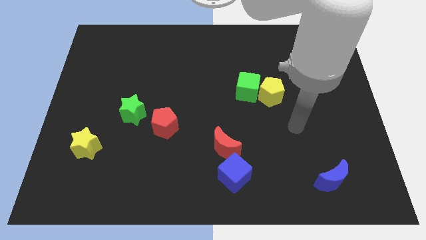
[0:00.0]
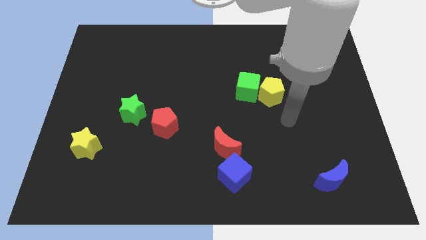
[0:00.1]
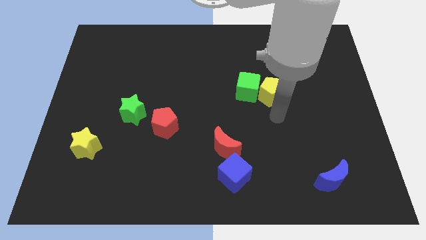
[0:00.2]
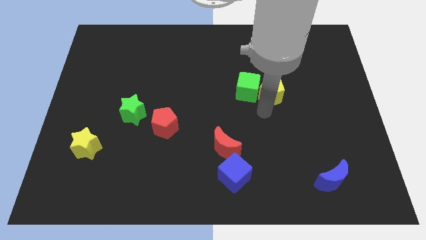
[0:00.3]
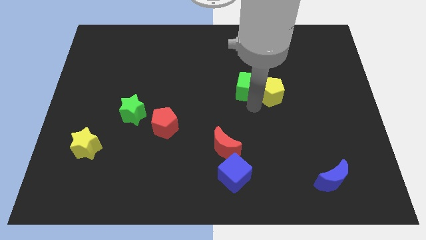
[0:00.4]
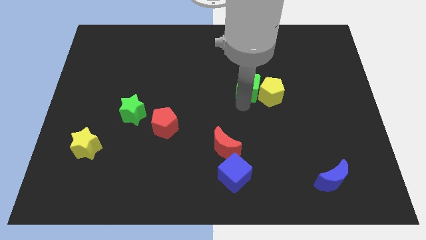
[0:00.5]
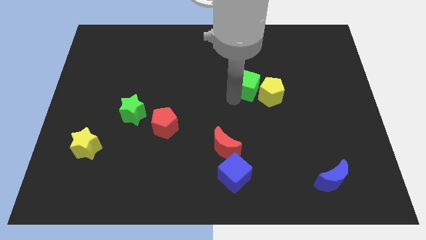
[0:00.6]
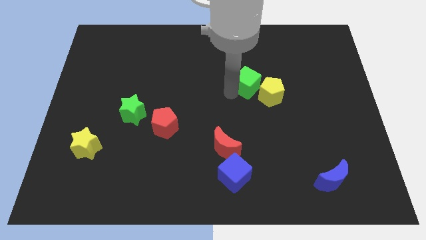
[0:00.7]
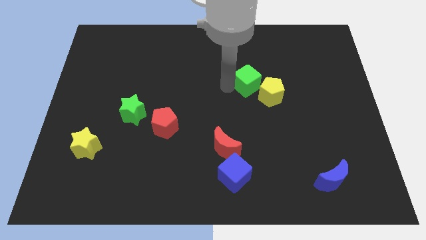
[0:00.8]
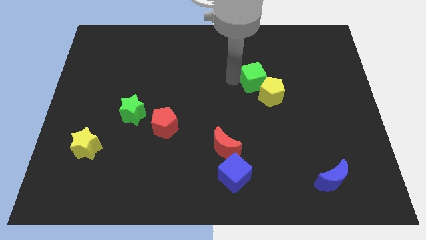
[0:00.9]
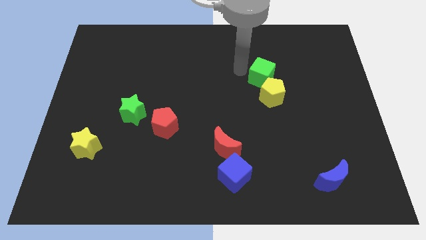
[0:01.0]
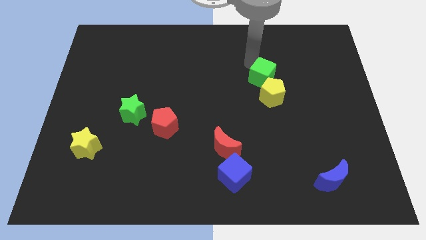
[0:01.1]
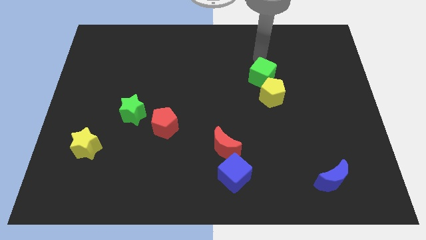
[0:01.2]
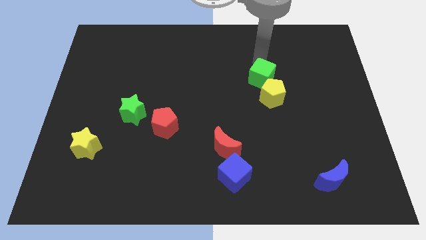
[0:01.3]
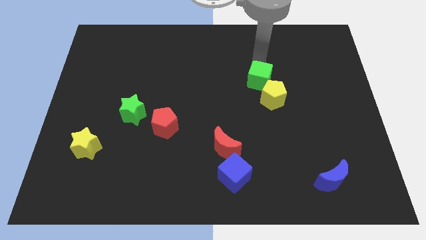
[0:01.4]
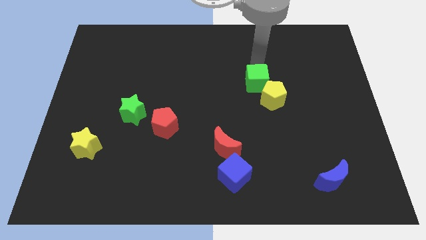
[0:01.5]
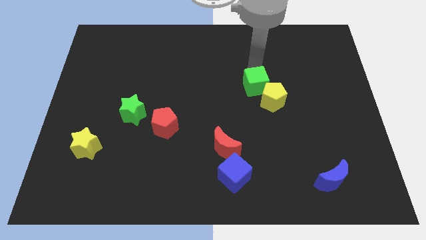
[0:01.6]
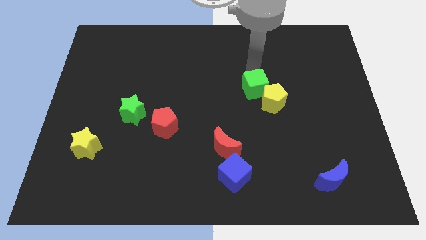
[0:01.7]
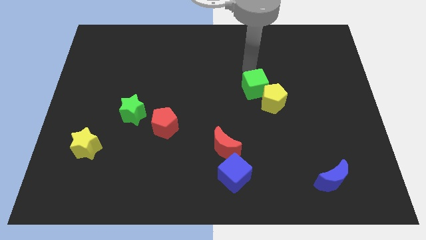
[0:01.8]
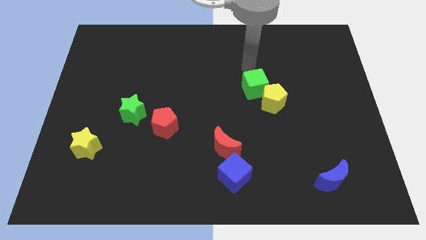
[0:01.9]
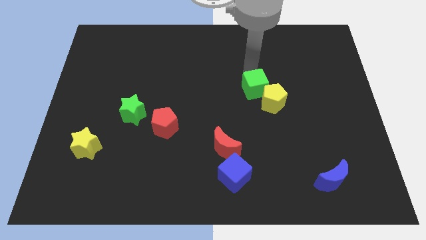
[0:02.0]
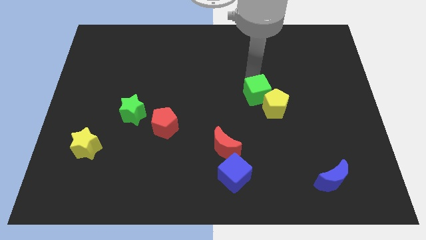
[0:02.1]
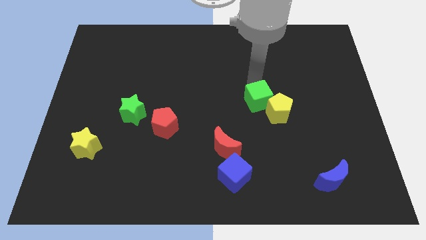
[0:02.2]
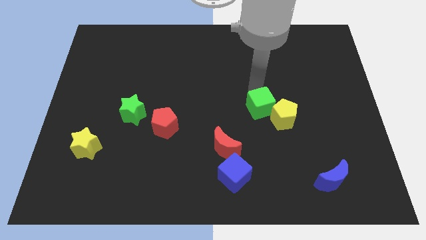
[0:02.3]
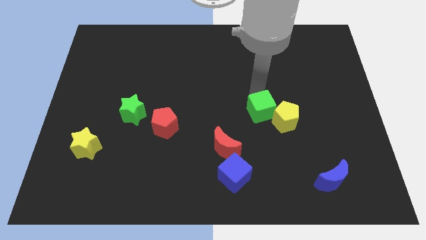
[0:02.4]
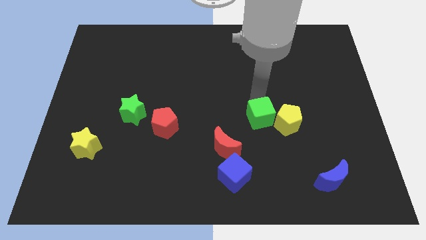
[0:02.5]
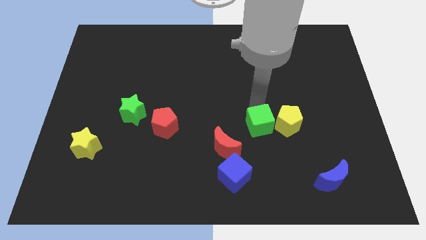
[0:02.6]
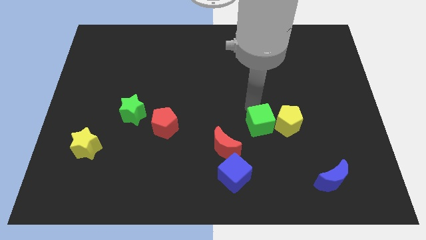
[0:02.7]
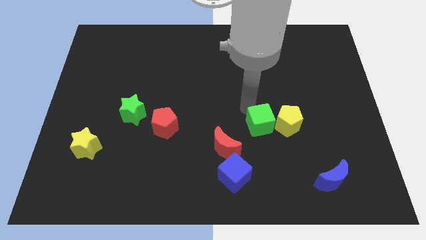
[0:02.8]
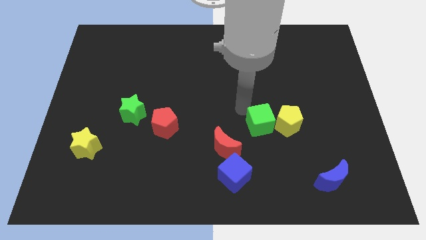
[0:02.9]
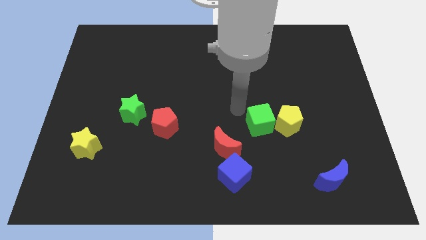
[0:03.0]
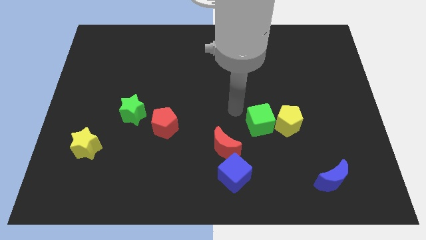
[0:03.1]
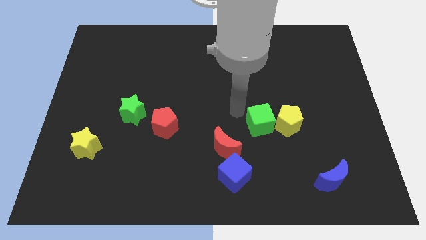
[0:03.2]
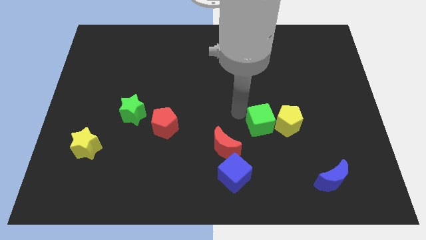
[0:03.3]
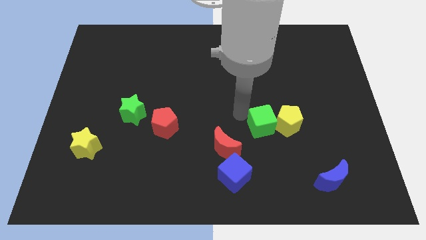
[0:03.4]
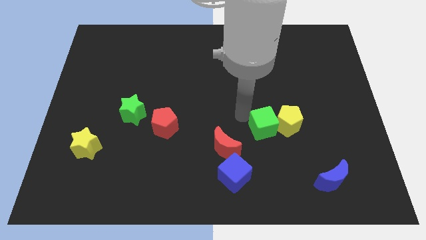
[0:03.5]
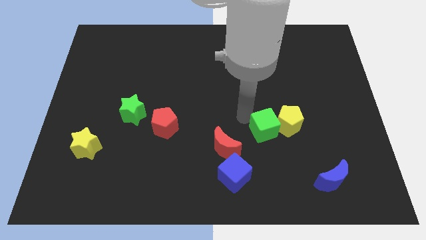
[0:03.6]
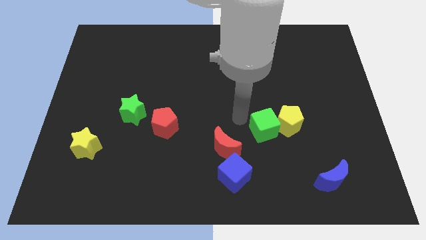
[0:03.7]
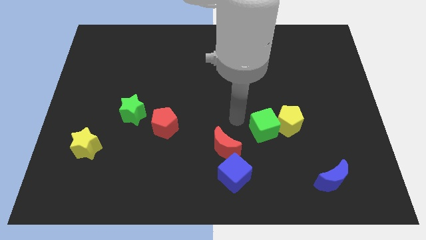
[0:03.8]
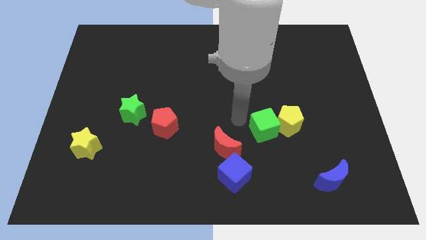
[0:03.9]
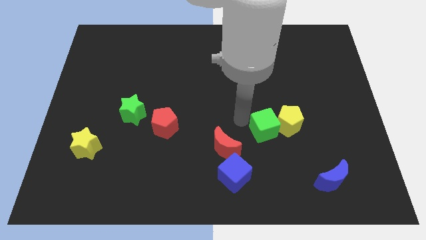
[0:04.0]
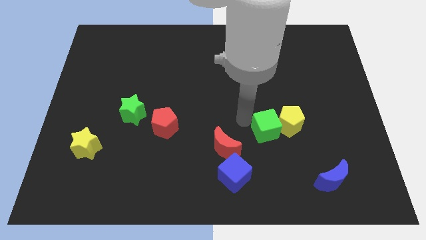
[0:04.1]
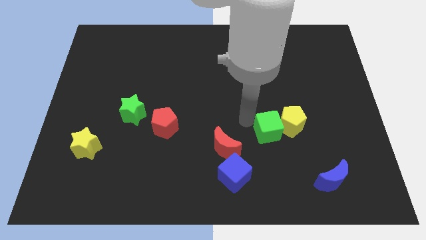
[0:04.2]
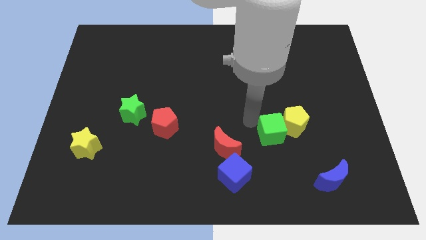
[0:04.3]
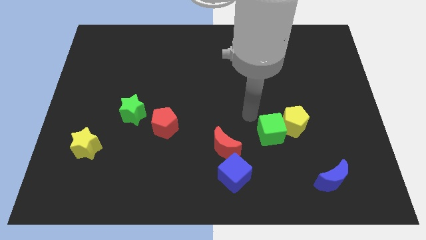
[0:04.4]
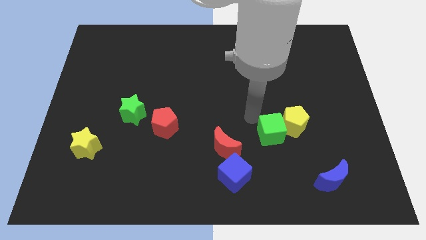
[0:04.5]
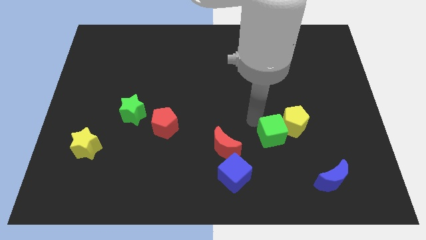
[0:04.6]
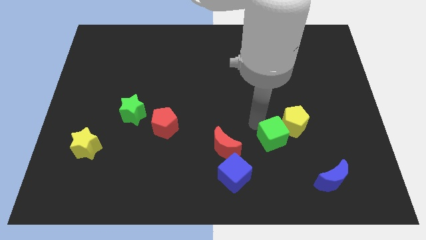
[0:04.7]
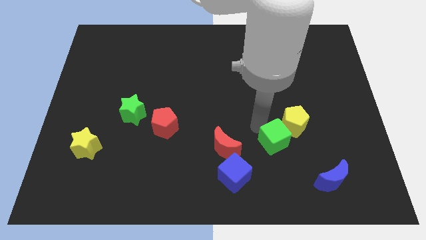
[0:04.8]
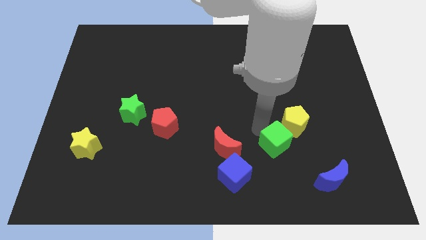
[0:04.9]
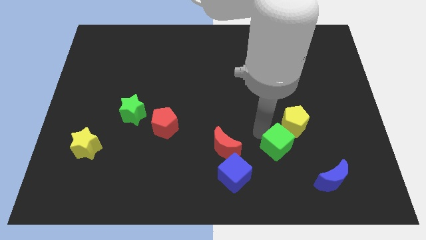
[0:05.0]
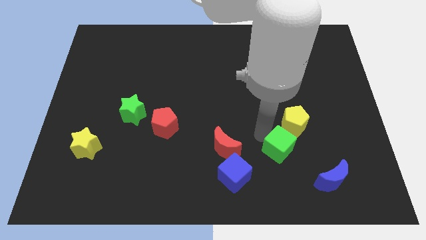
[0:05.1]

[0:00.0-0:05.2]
slide the green cube to the top left side of the blue moon

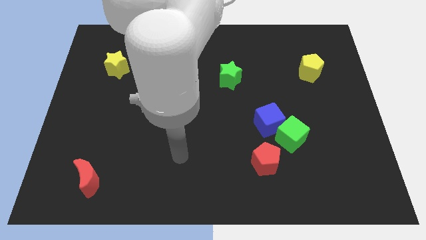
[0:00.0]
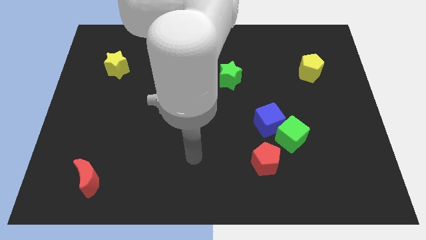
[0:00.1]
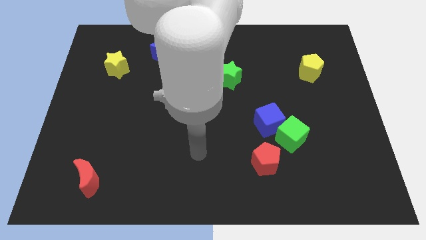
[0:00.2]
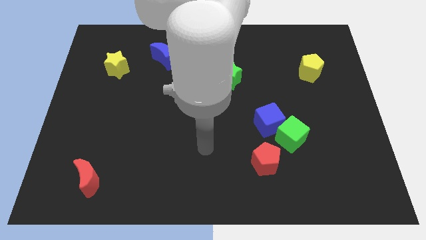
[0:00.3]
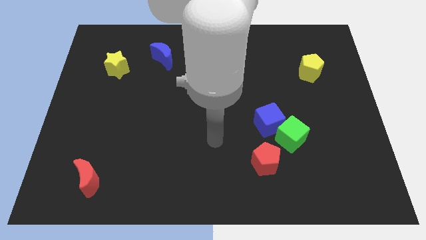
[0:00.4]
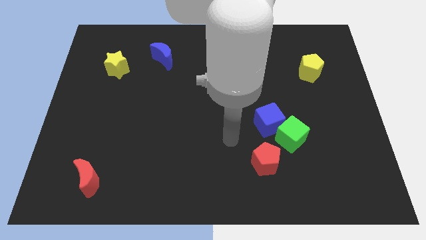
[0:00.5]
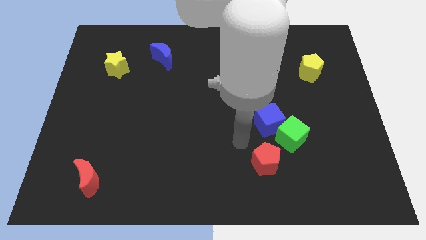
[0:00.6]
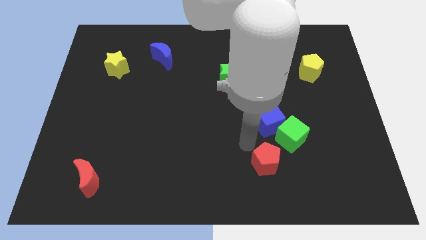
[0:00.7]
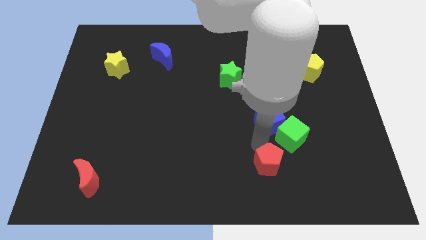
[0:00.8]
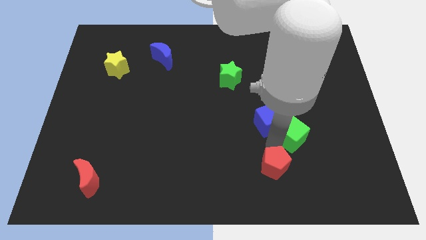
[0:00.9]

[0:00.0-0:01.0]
push the green cube above the red pentagon

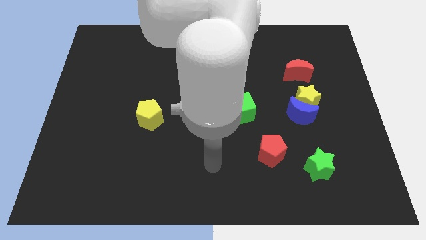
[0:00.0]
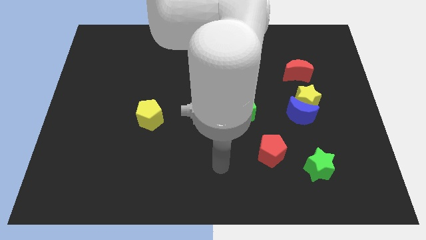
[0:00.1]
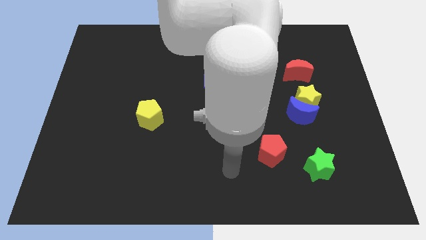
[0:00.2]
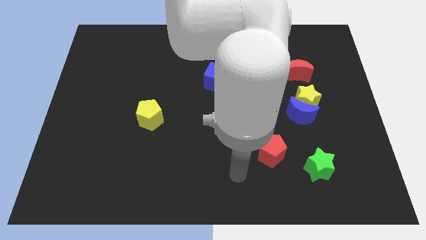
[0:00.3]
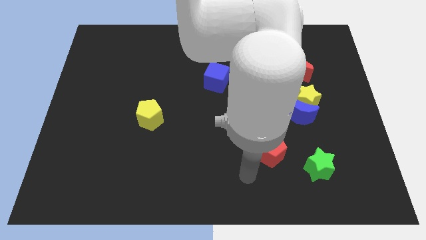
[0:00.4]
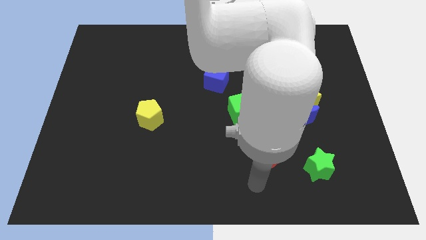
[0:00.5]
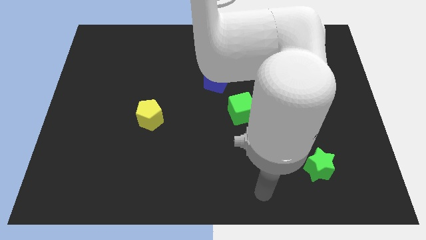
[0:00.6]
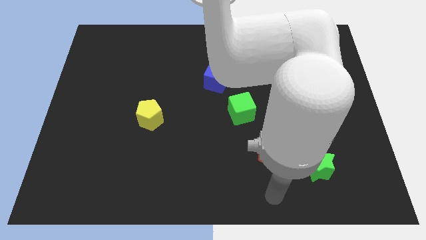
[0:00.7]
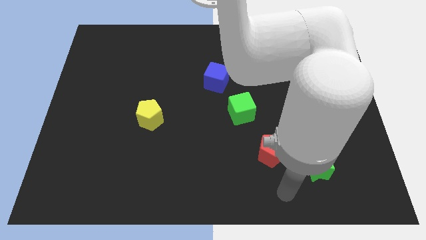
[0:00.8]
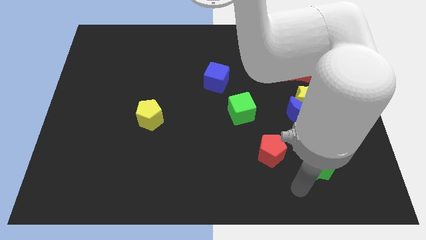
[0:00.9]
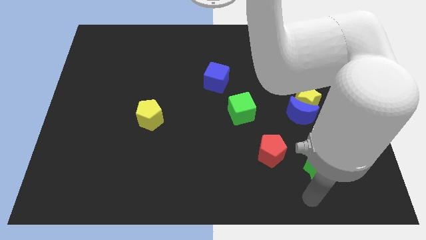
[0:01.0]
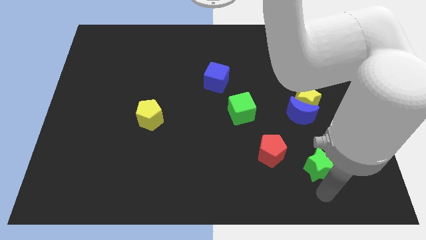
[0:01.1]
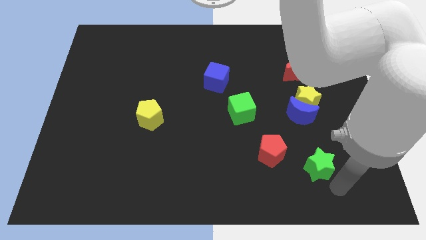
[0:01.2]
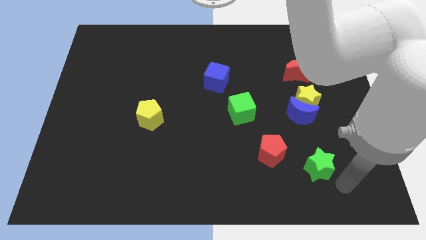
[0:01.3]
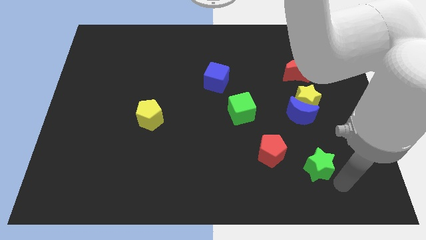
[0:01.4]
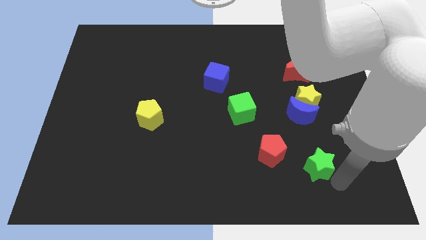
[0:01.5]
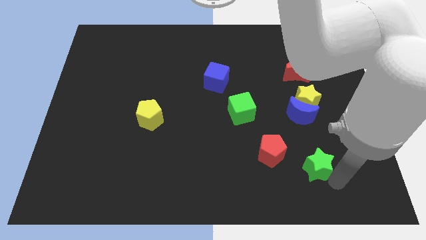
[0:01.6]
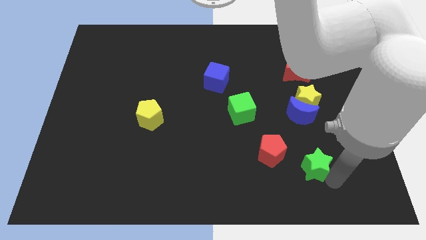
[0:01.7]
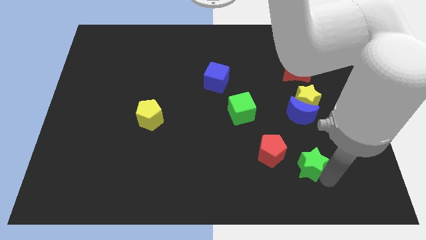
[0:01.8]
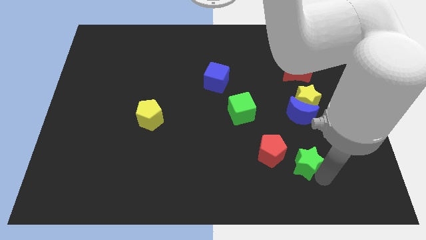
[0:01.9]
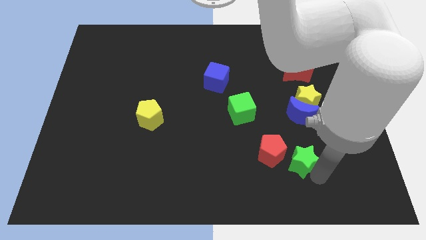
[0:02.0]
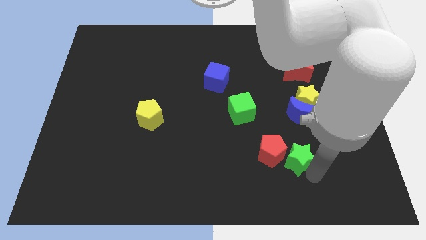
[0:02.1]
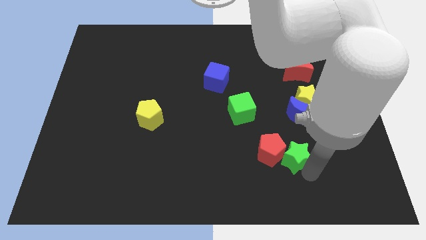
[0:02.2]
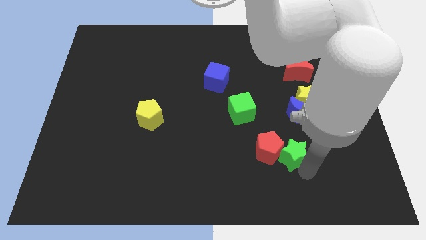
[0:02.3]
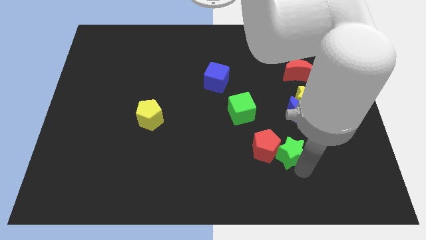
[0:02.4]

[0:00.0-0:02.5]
push the green star to the bottom left side of the blue moon
